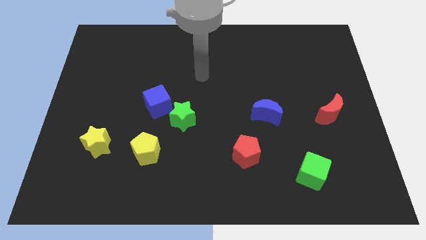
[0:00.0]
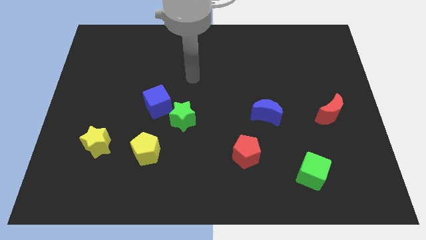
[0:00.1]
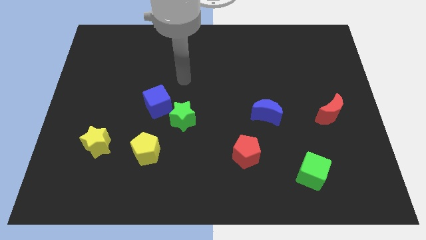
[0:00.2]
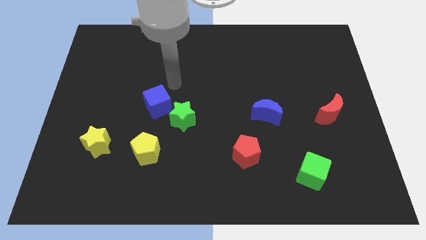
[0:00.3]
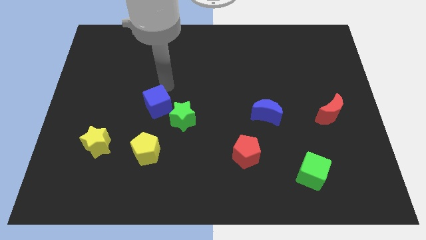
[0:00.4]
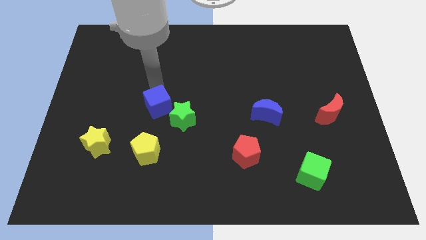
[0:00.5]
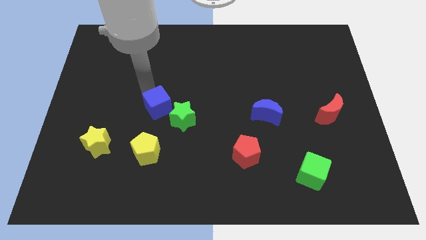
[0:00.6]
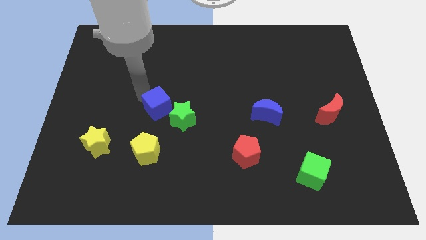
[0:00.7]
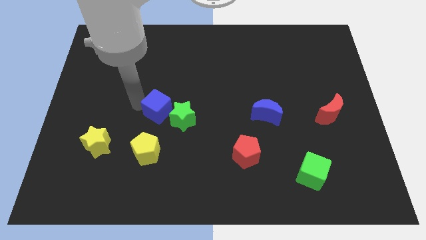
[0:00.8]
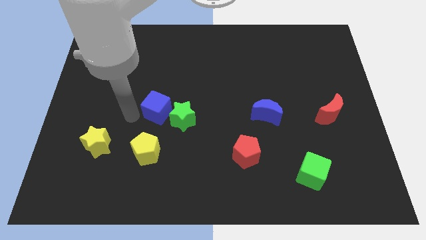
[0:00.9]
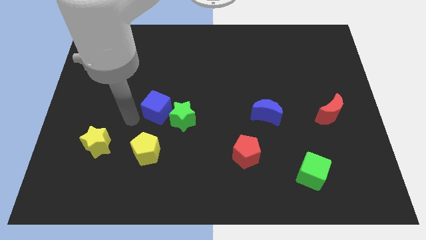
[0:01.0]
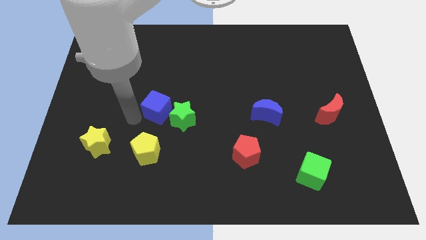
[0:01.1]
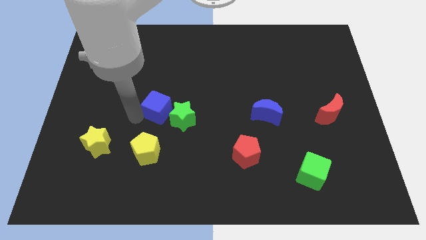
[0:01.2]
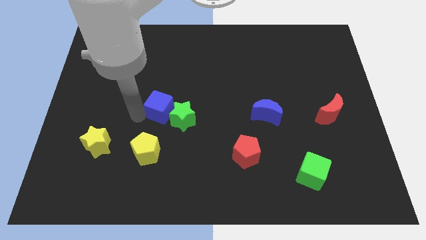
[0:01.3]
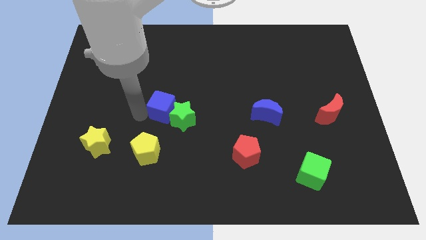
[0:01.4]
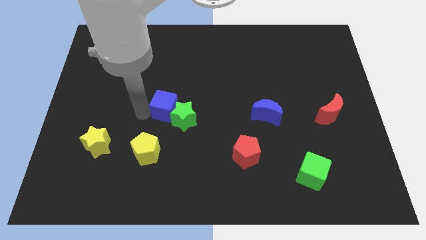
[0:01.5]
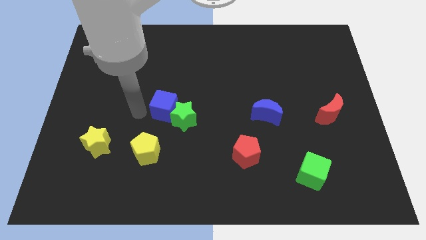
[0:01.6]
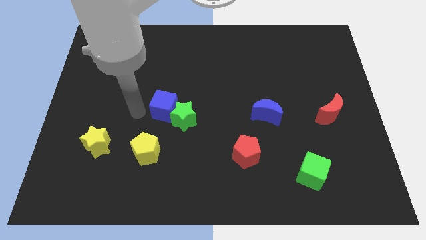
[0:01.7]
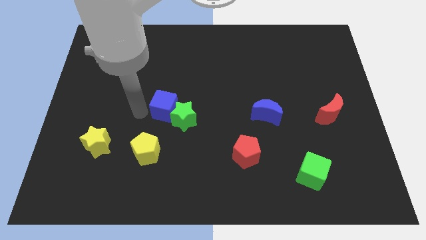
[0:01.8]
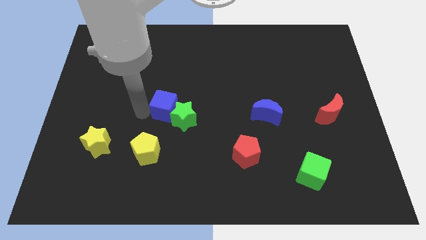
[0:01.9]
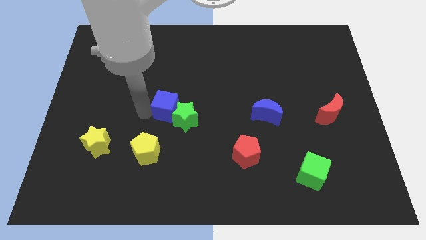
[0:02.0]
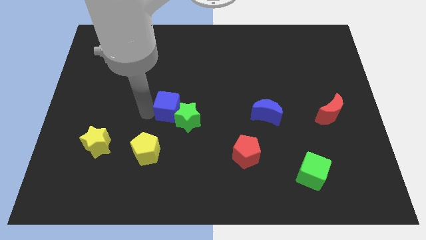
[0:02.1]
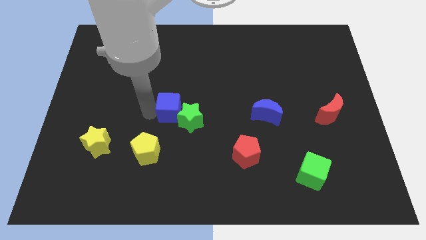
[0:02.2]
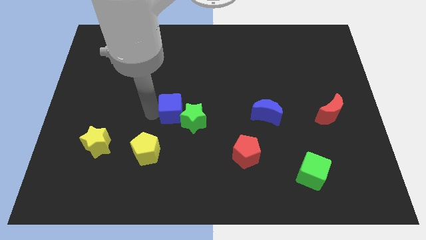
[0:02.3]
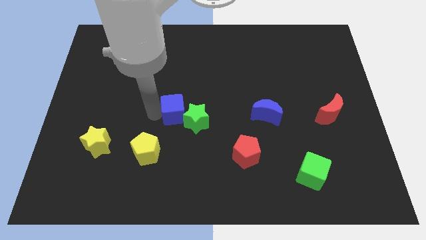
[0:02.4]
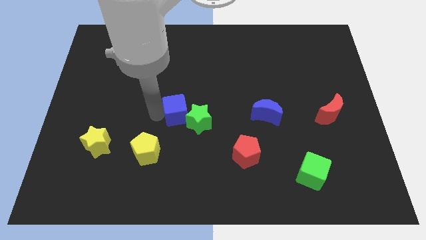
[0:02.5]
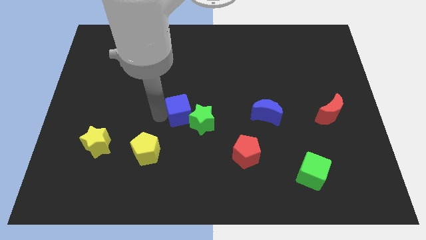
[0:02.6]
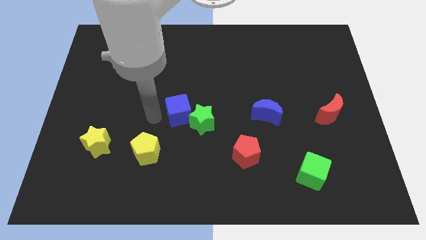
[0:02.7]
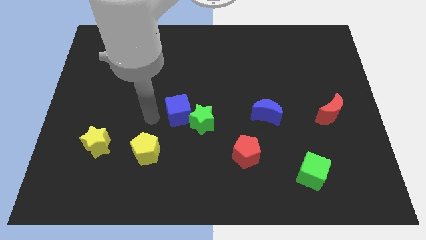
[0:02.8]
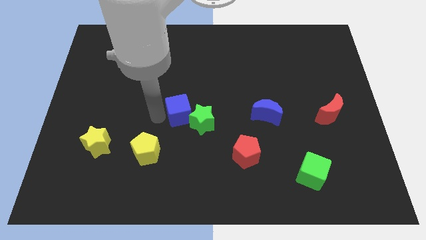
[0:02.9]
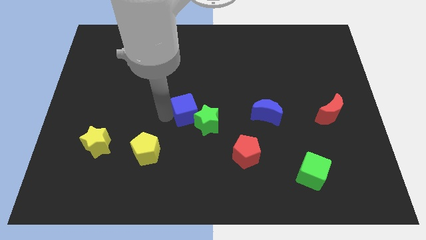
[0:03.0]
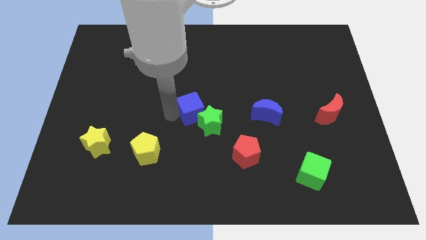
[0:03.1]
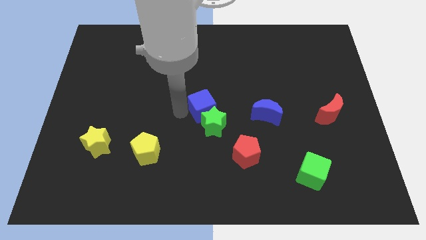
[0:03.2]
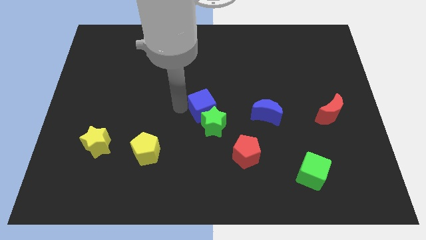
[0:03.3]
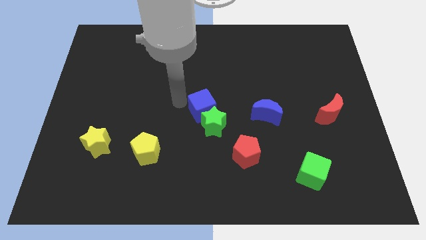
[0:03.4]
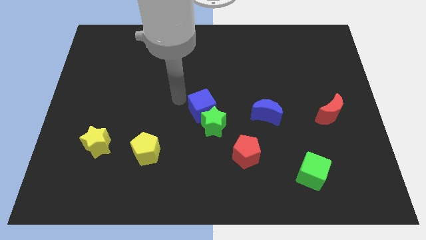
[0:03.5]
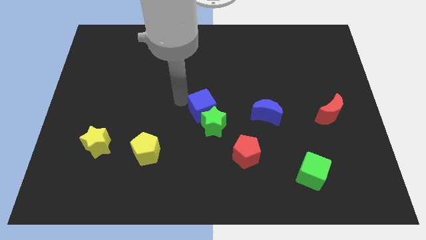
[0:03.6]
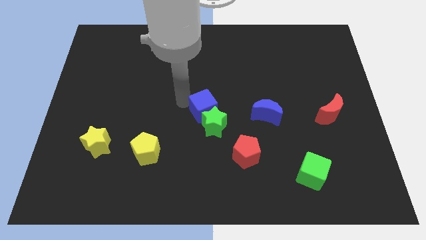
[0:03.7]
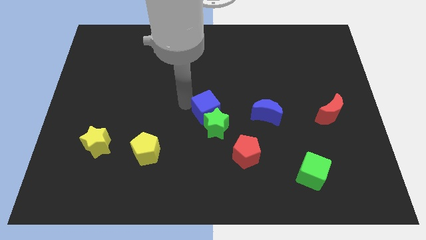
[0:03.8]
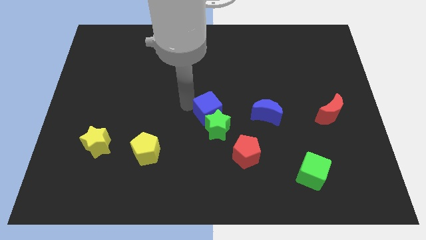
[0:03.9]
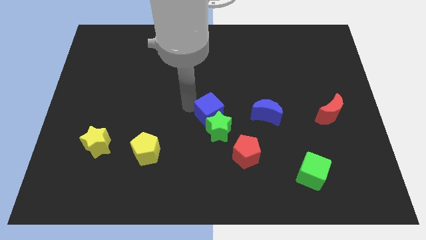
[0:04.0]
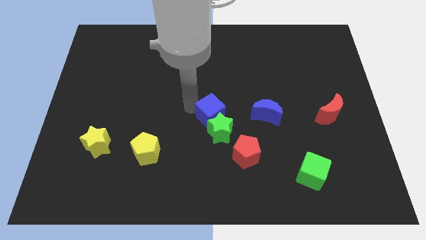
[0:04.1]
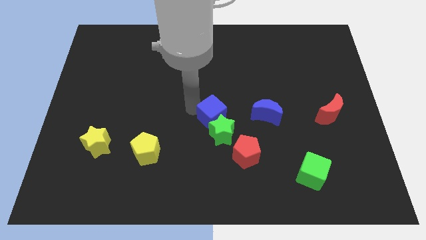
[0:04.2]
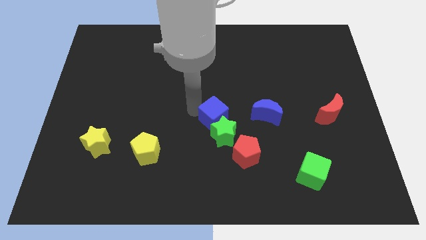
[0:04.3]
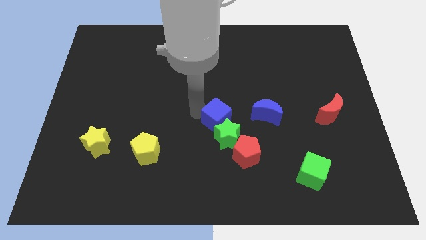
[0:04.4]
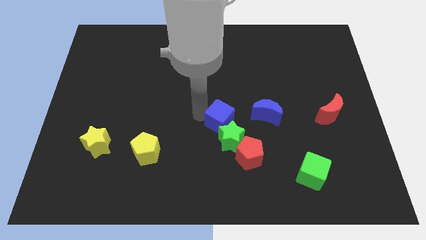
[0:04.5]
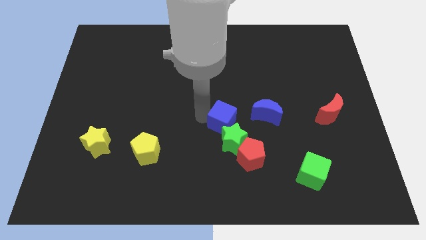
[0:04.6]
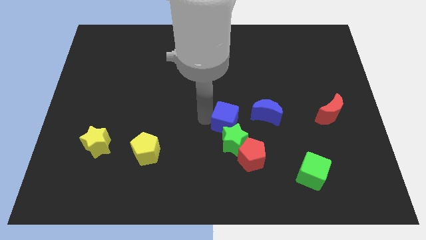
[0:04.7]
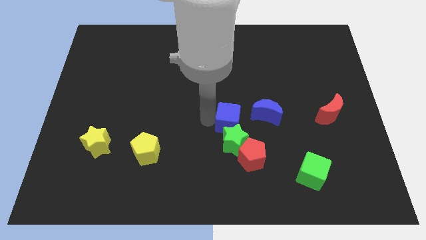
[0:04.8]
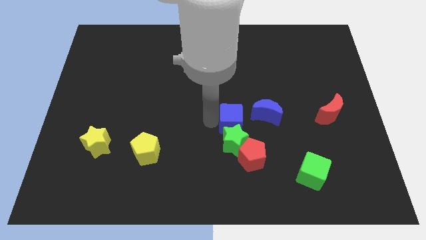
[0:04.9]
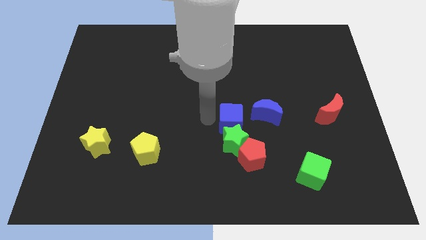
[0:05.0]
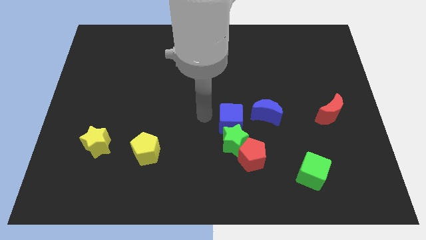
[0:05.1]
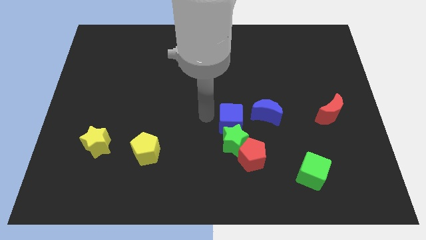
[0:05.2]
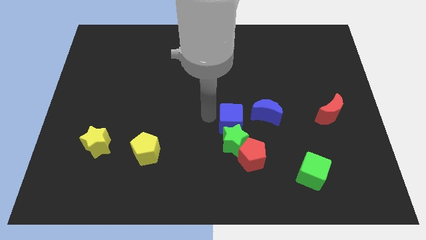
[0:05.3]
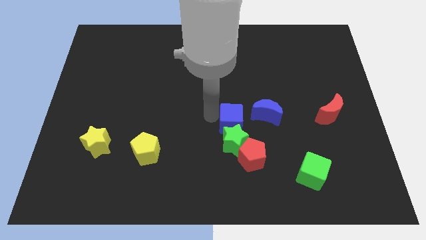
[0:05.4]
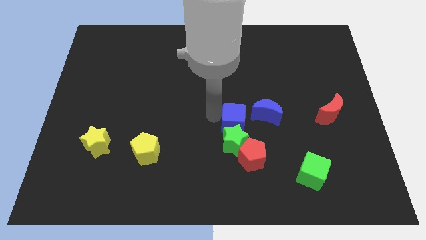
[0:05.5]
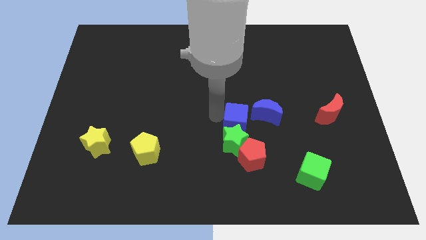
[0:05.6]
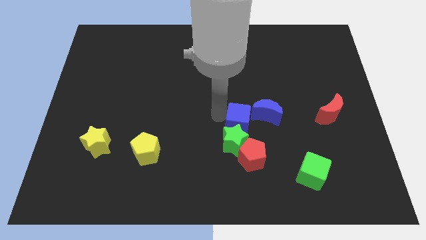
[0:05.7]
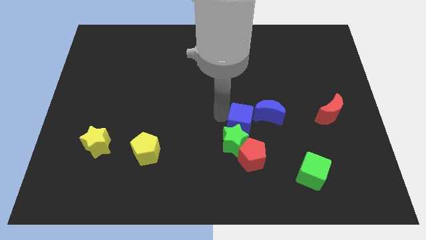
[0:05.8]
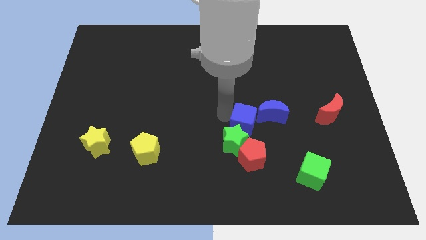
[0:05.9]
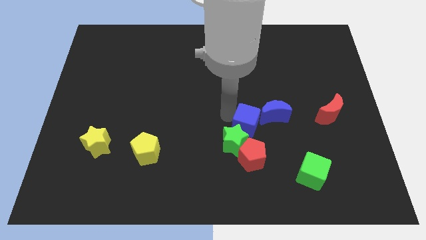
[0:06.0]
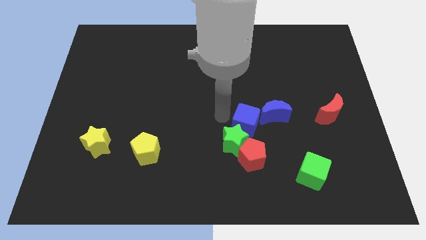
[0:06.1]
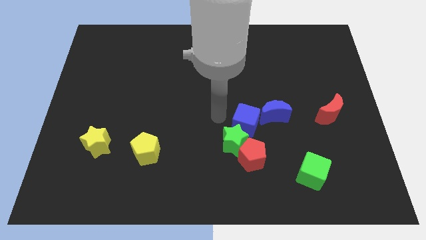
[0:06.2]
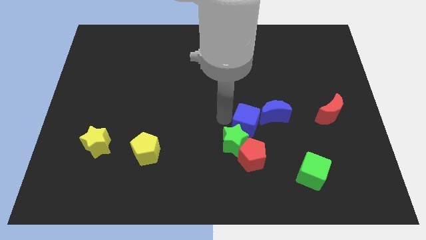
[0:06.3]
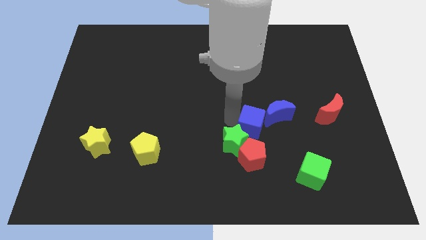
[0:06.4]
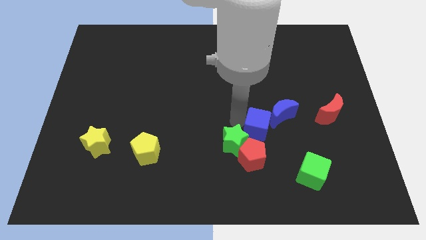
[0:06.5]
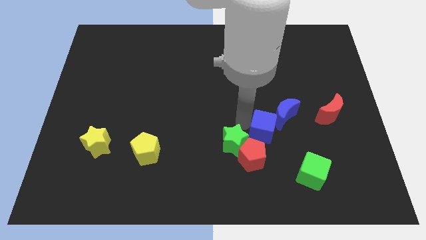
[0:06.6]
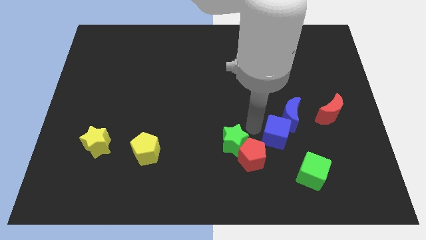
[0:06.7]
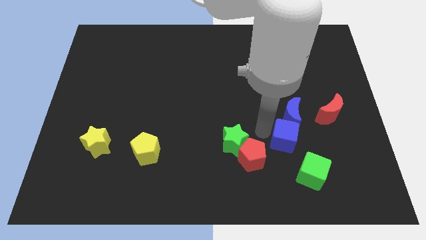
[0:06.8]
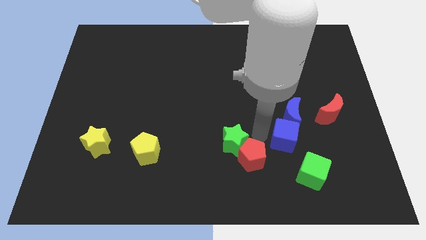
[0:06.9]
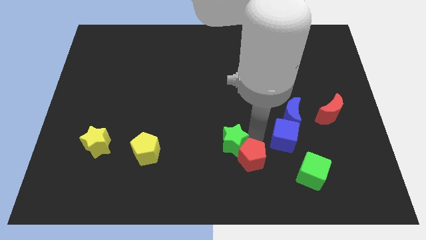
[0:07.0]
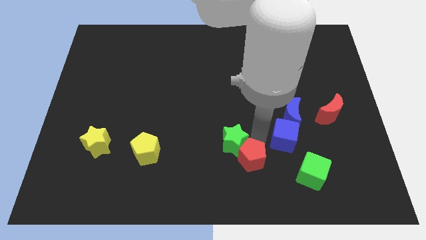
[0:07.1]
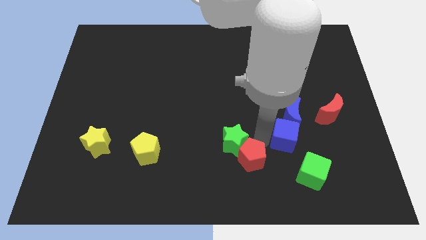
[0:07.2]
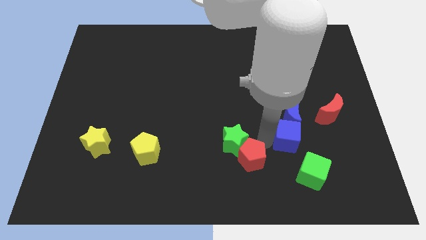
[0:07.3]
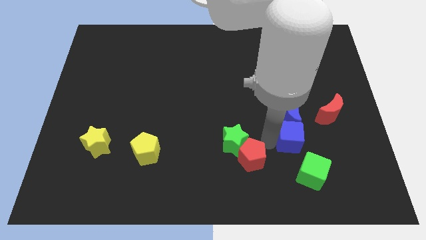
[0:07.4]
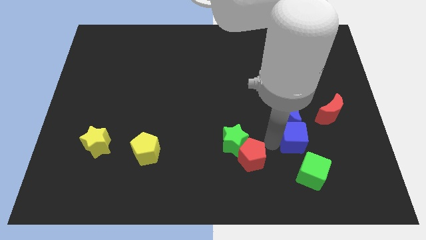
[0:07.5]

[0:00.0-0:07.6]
move the blue cube to the bottom right of the blue moon
